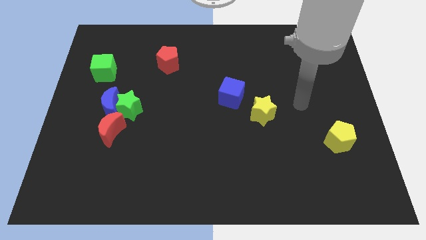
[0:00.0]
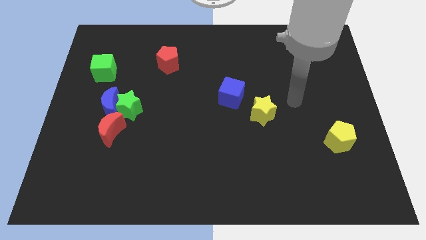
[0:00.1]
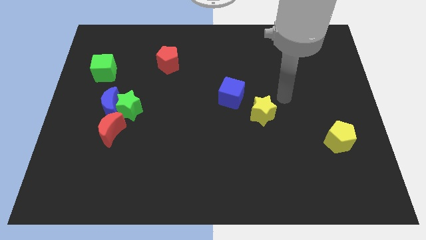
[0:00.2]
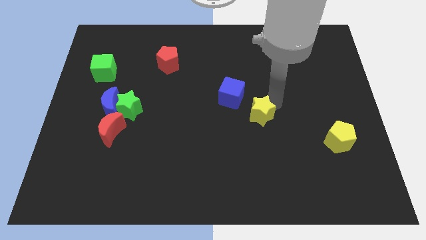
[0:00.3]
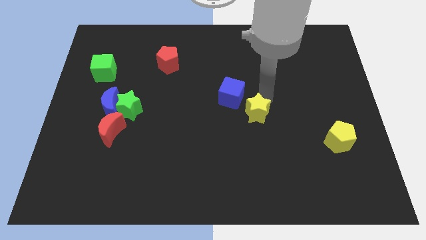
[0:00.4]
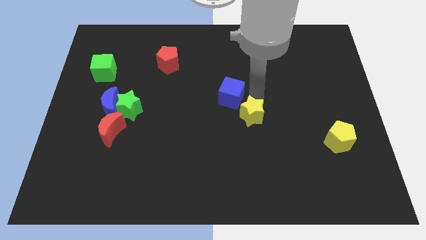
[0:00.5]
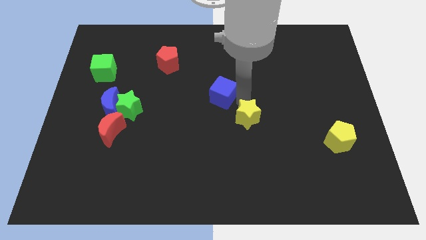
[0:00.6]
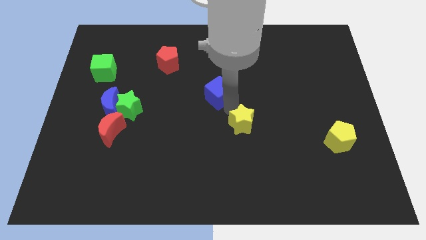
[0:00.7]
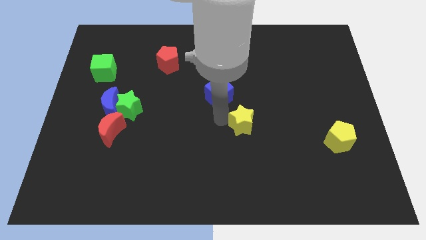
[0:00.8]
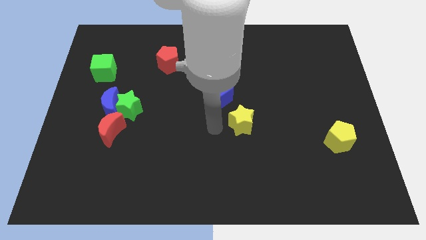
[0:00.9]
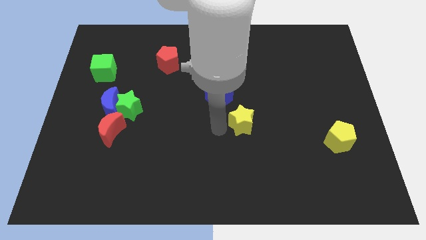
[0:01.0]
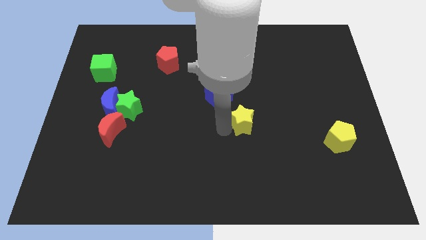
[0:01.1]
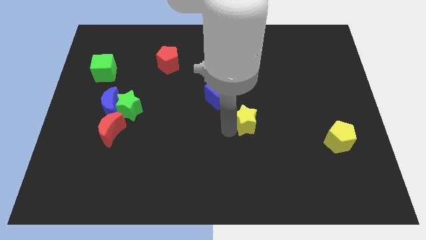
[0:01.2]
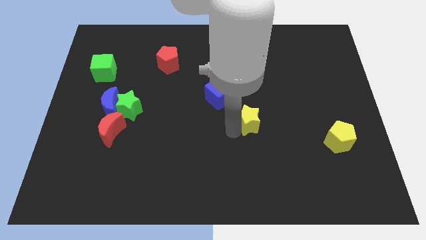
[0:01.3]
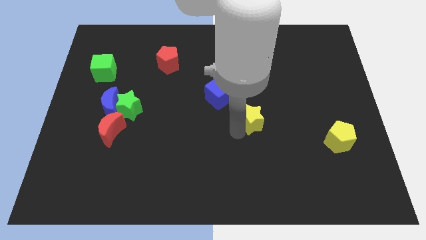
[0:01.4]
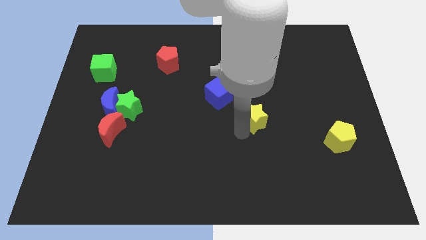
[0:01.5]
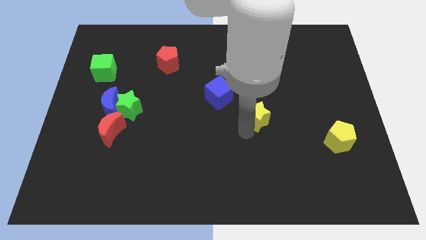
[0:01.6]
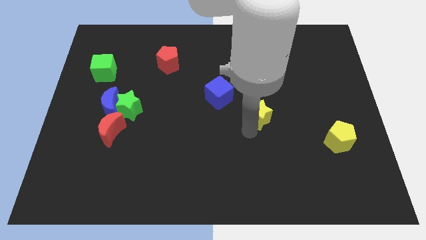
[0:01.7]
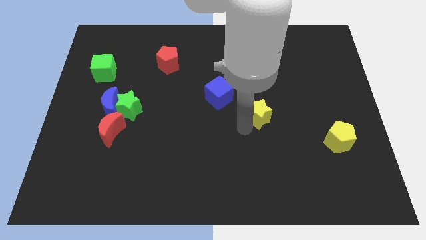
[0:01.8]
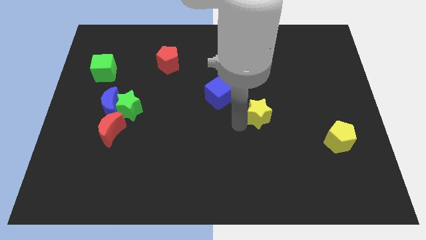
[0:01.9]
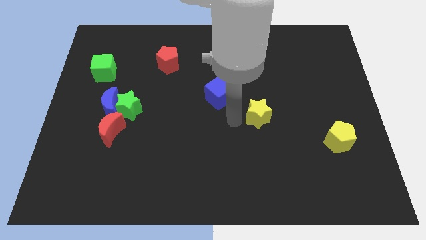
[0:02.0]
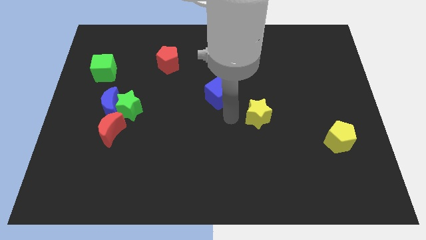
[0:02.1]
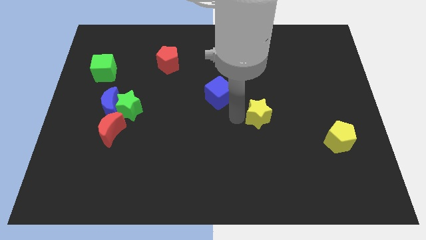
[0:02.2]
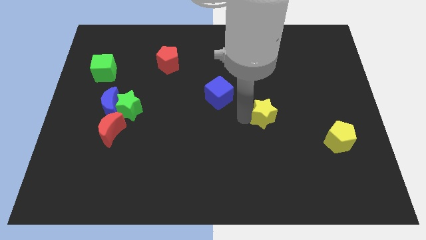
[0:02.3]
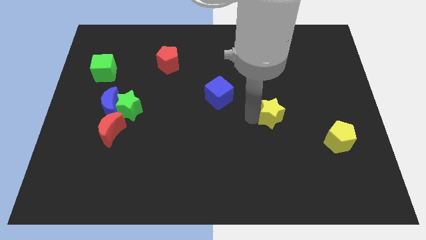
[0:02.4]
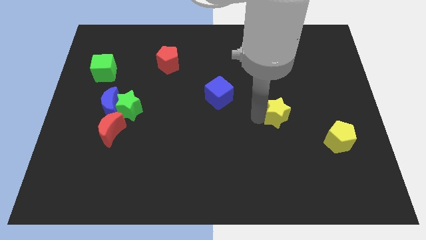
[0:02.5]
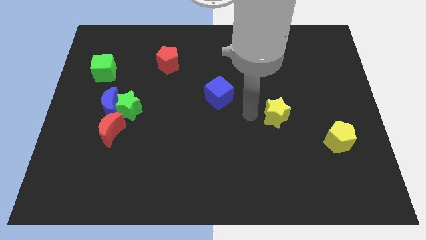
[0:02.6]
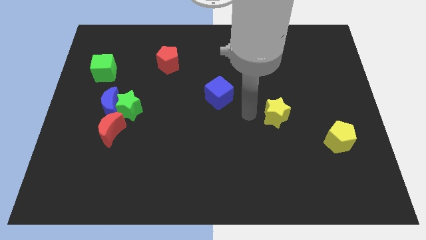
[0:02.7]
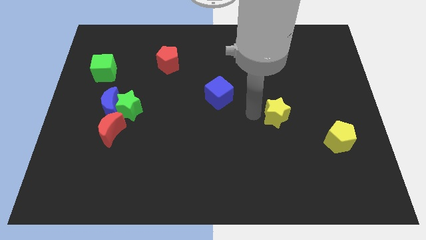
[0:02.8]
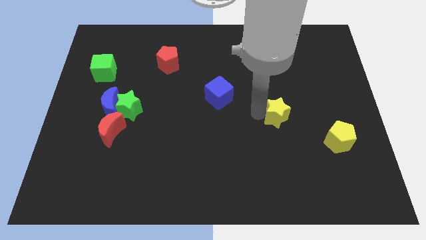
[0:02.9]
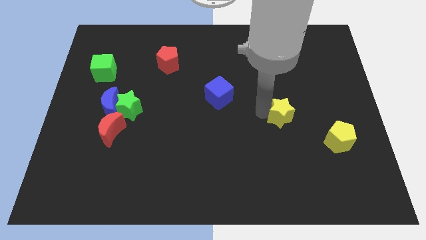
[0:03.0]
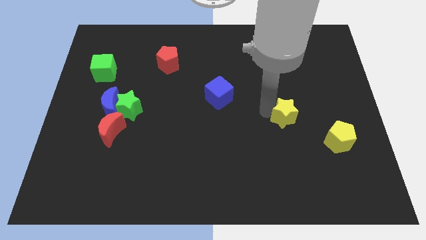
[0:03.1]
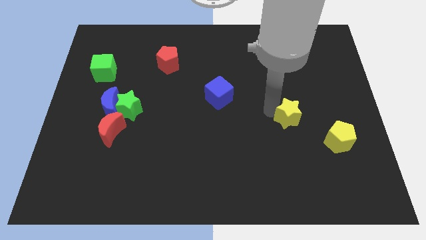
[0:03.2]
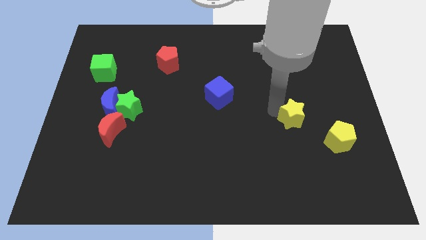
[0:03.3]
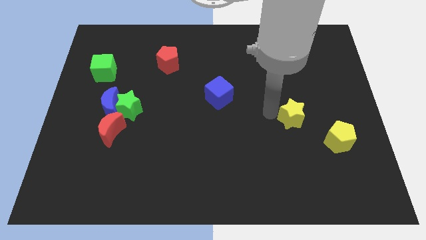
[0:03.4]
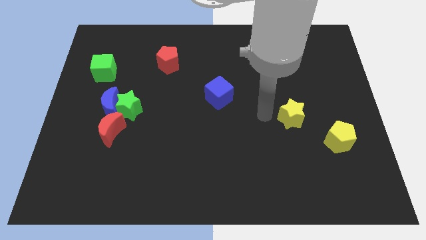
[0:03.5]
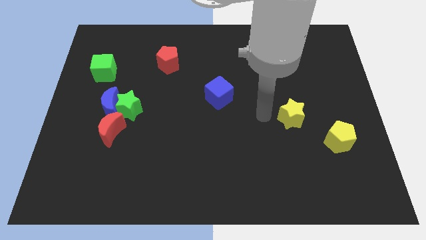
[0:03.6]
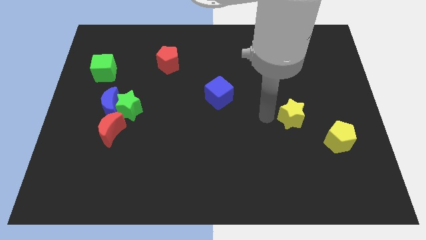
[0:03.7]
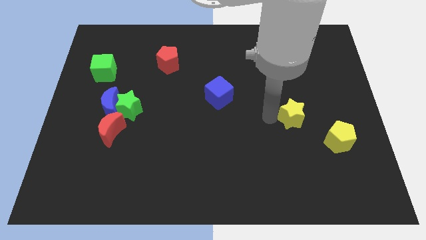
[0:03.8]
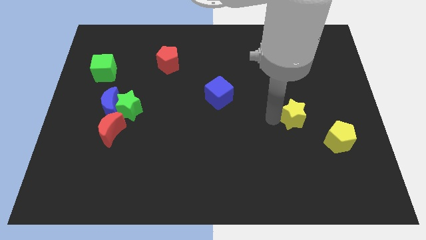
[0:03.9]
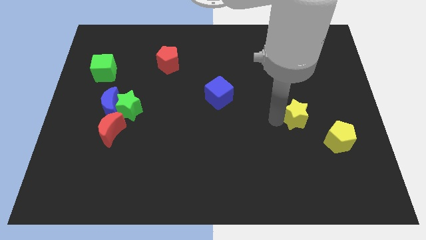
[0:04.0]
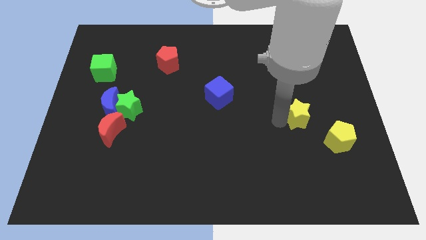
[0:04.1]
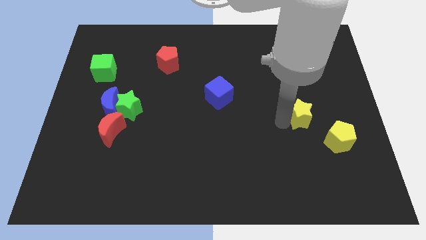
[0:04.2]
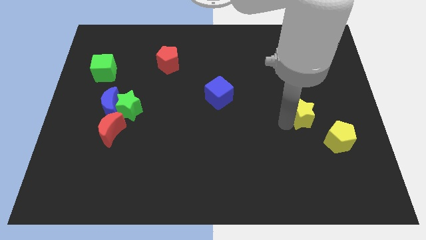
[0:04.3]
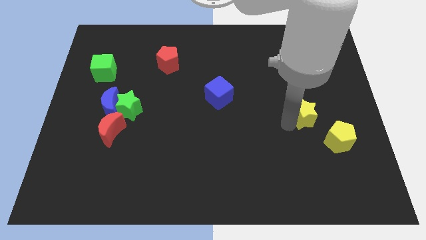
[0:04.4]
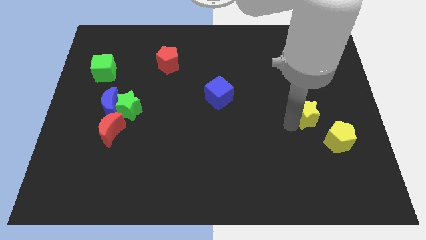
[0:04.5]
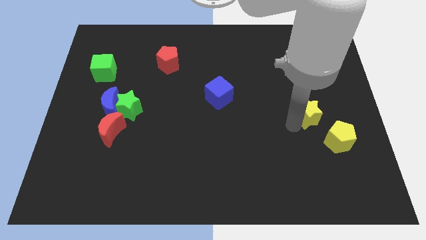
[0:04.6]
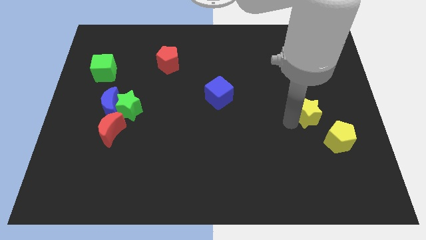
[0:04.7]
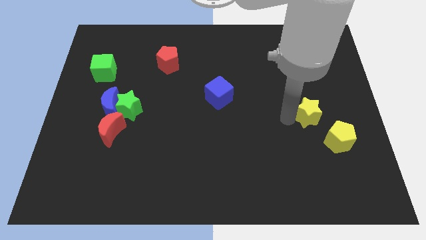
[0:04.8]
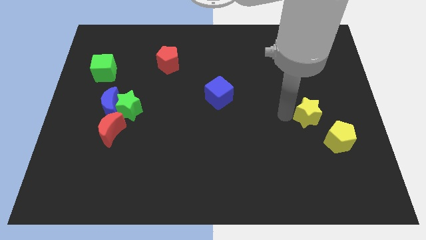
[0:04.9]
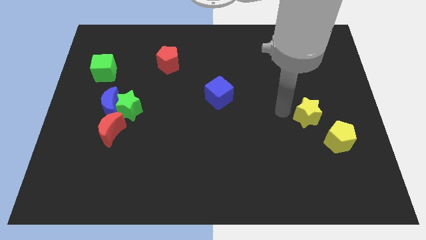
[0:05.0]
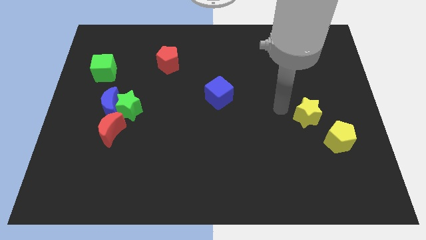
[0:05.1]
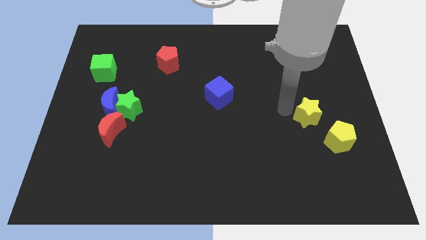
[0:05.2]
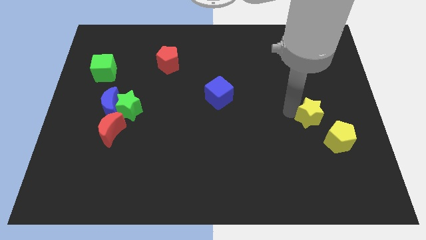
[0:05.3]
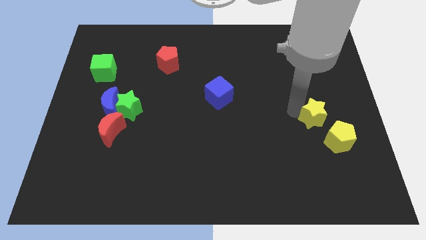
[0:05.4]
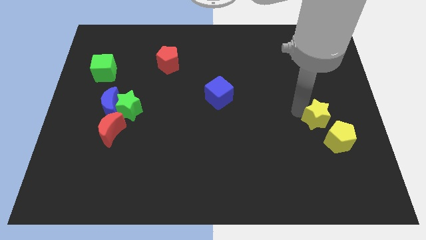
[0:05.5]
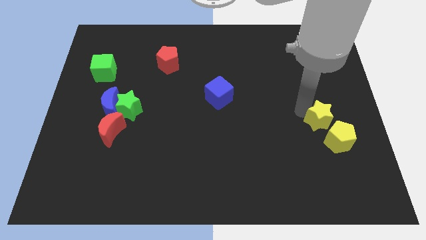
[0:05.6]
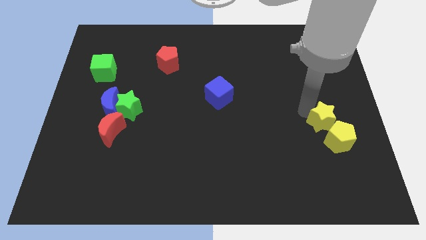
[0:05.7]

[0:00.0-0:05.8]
slide the yellow star next to the yellow pentagon

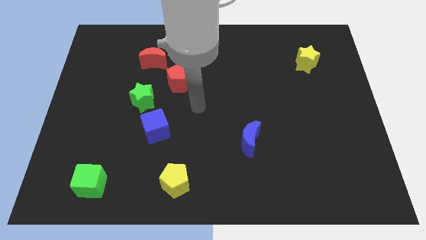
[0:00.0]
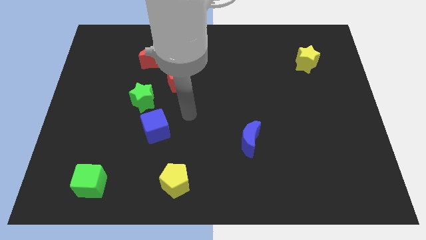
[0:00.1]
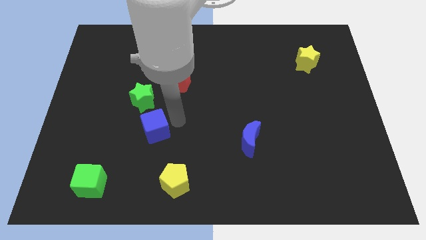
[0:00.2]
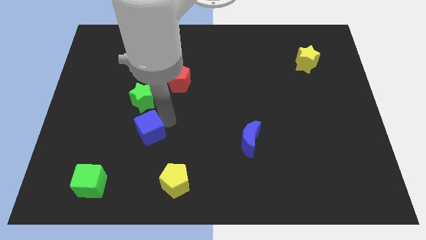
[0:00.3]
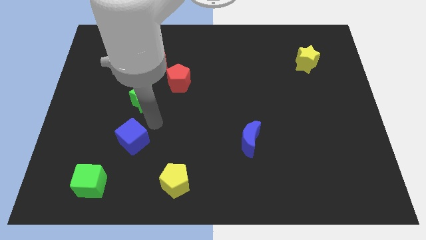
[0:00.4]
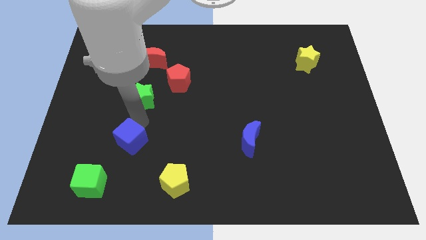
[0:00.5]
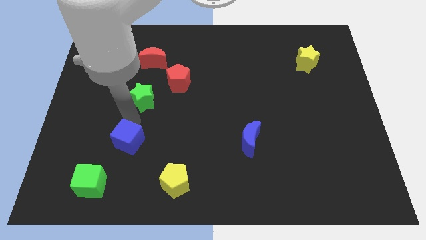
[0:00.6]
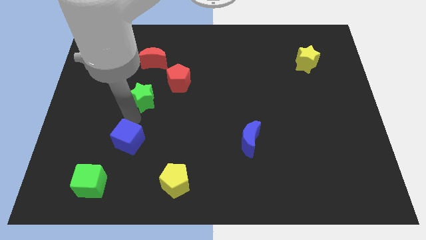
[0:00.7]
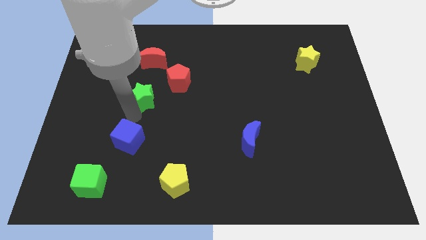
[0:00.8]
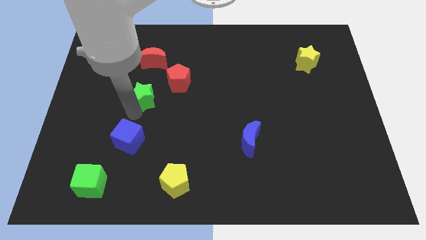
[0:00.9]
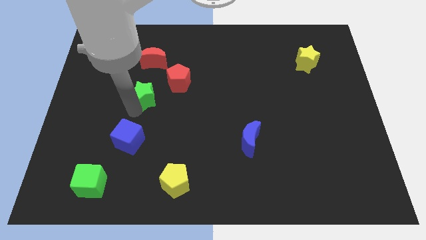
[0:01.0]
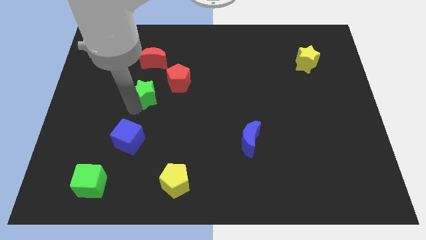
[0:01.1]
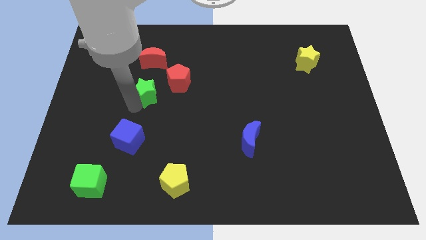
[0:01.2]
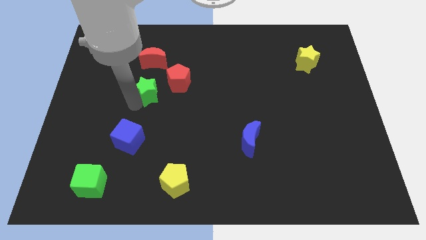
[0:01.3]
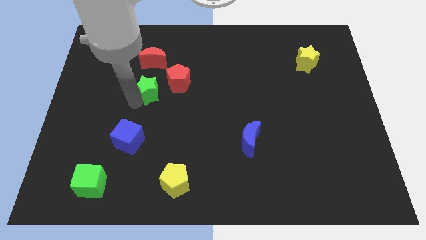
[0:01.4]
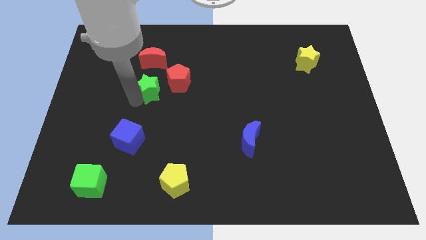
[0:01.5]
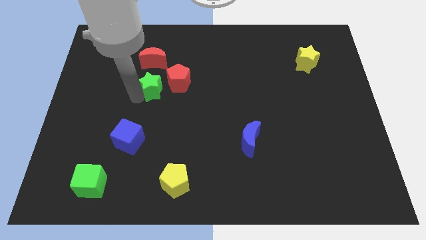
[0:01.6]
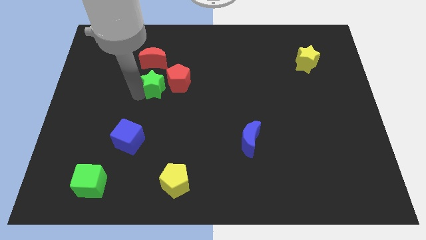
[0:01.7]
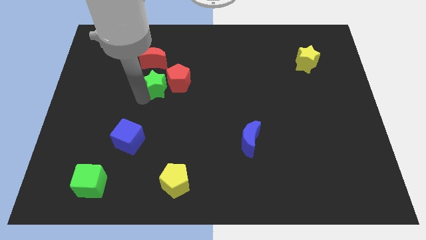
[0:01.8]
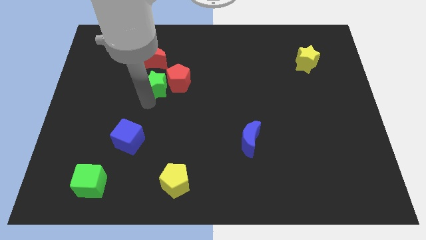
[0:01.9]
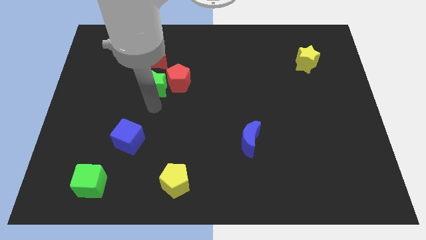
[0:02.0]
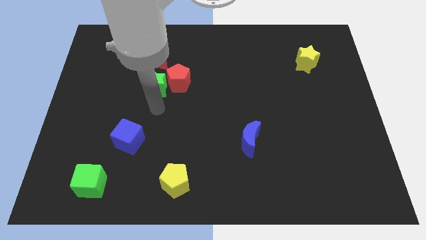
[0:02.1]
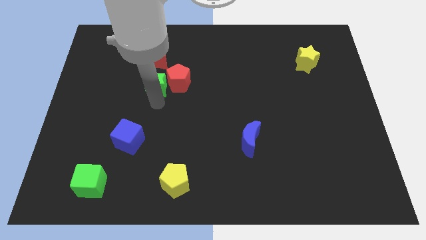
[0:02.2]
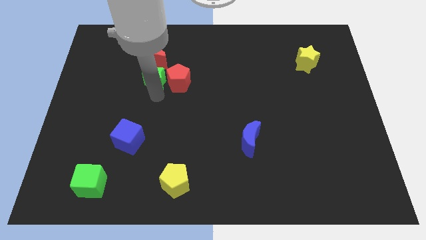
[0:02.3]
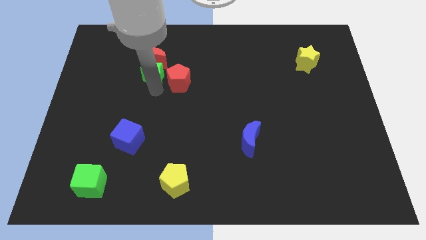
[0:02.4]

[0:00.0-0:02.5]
push the green star close to the red moon
